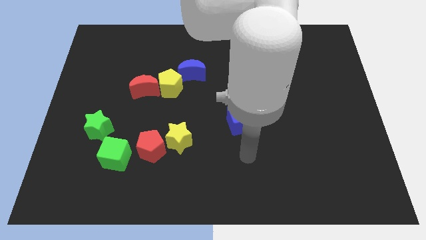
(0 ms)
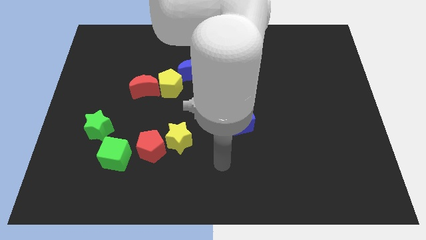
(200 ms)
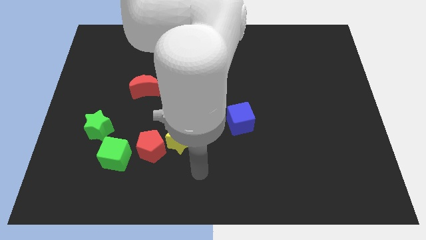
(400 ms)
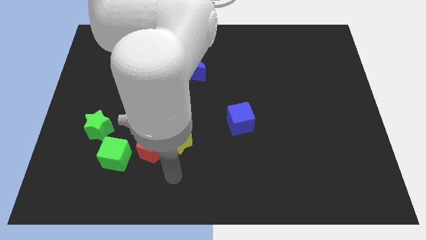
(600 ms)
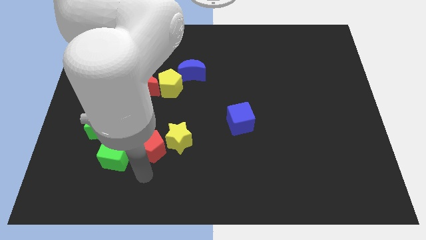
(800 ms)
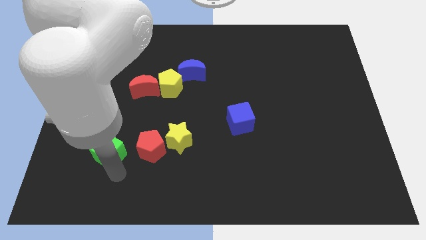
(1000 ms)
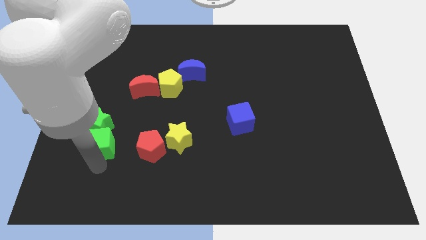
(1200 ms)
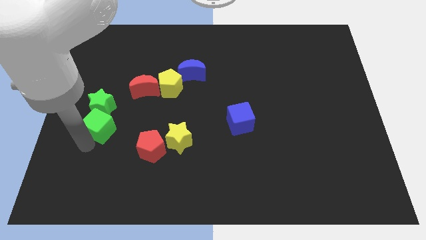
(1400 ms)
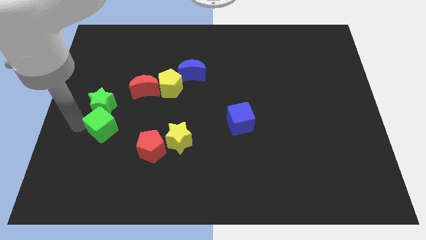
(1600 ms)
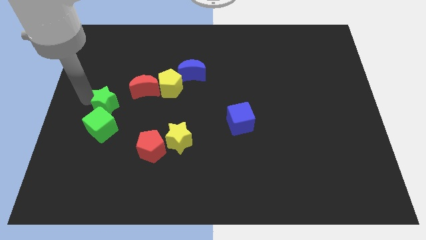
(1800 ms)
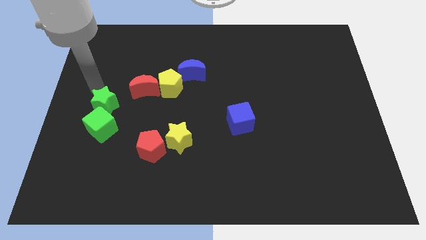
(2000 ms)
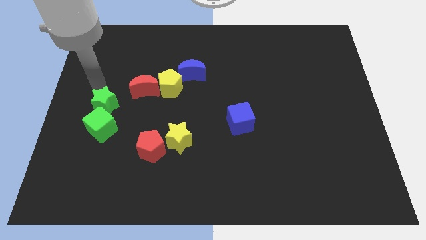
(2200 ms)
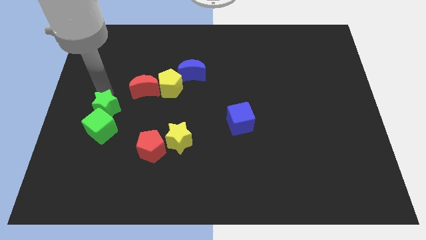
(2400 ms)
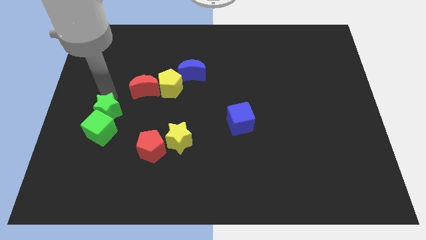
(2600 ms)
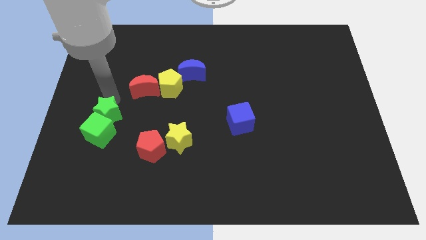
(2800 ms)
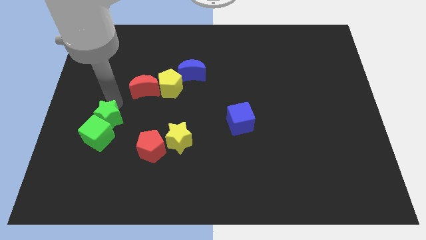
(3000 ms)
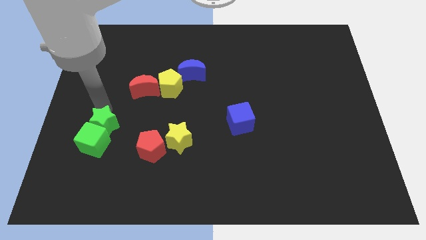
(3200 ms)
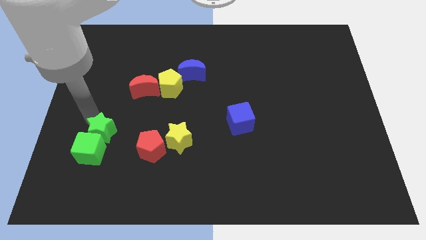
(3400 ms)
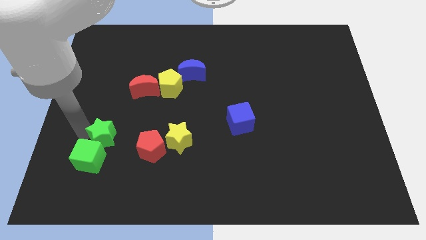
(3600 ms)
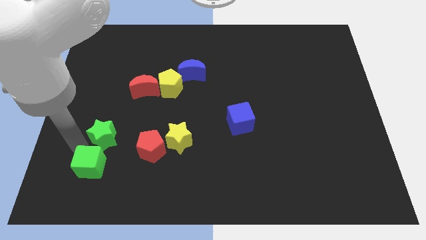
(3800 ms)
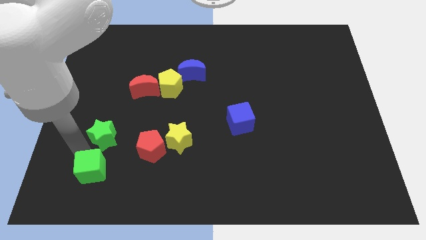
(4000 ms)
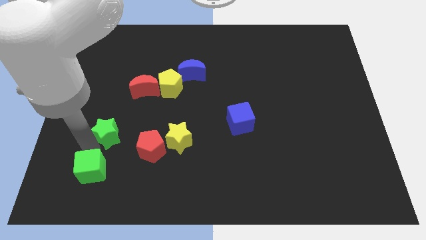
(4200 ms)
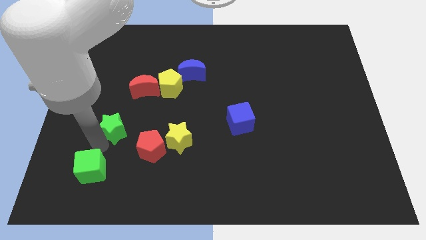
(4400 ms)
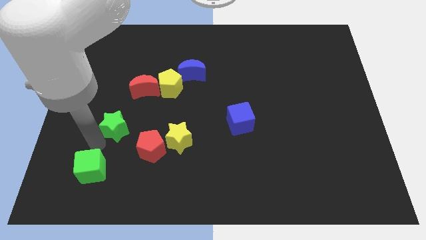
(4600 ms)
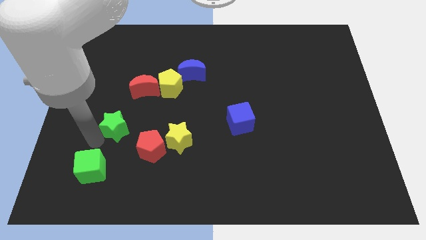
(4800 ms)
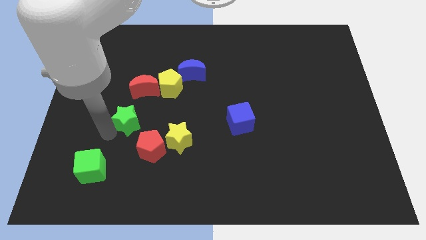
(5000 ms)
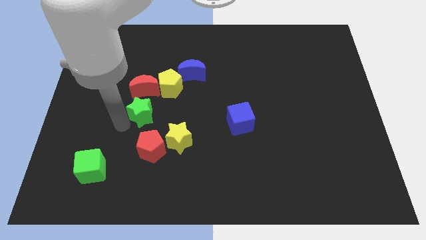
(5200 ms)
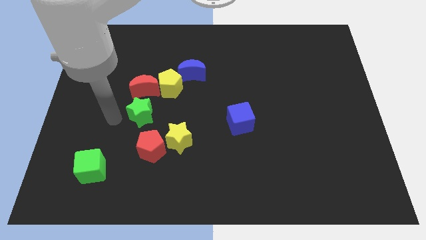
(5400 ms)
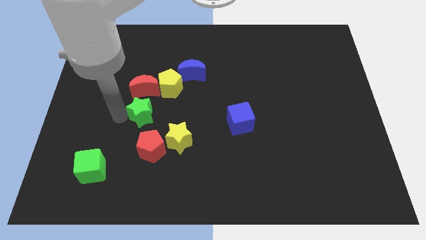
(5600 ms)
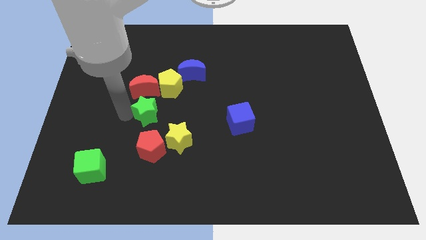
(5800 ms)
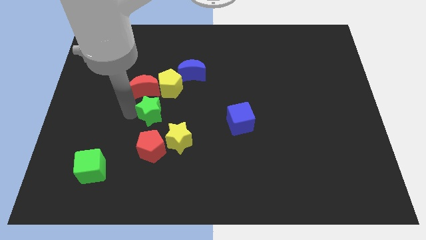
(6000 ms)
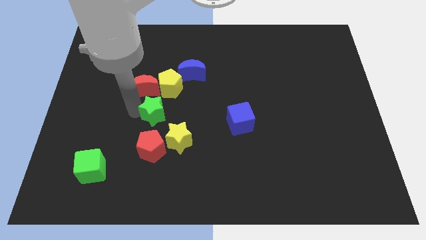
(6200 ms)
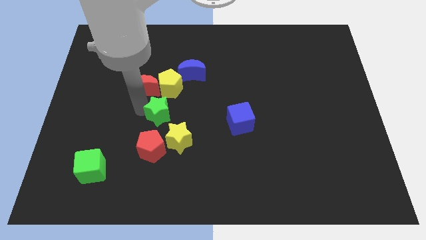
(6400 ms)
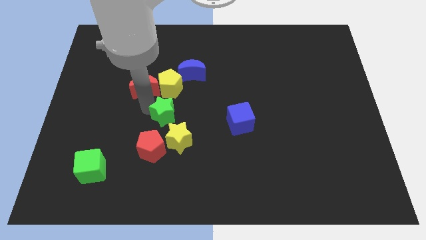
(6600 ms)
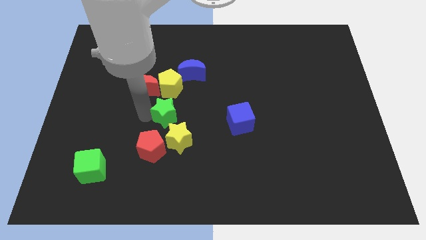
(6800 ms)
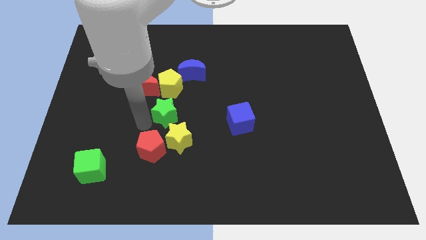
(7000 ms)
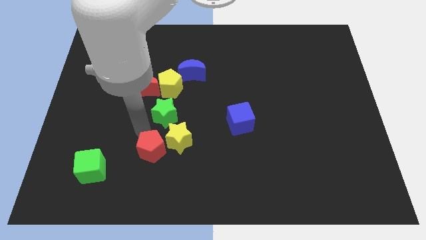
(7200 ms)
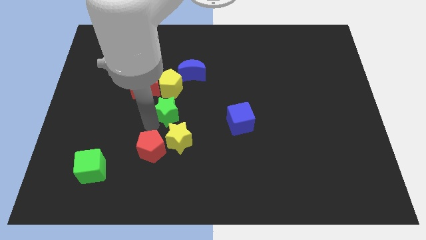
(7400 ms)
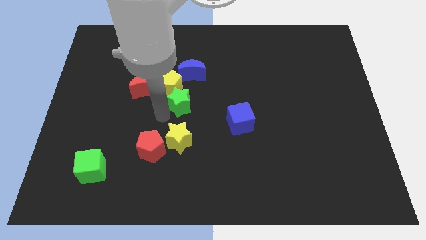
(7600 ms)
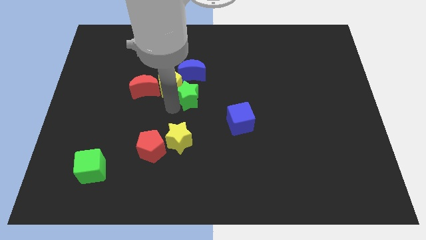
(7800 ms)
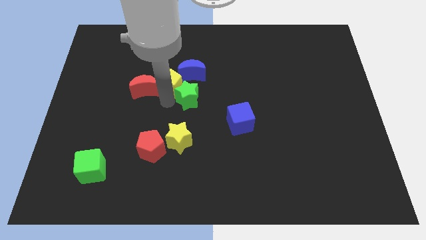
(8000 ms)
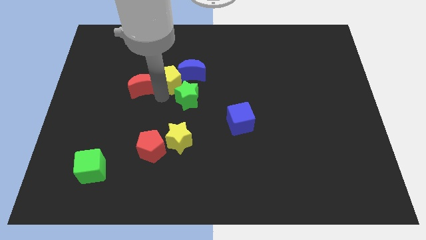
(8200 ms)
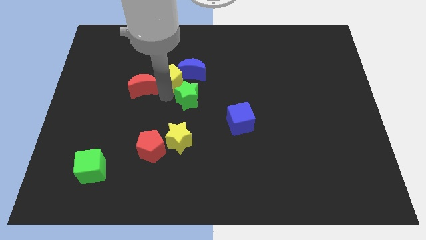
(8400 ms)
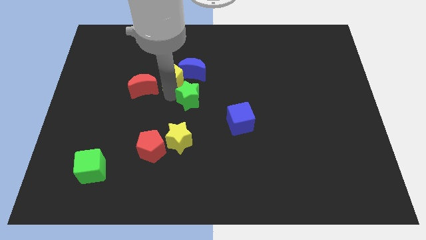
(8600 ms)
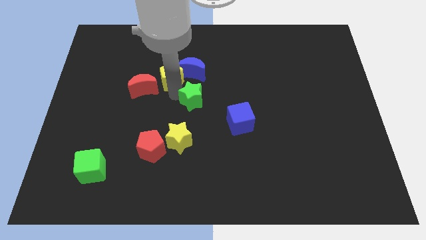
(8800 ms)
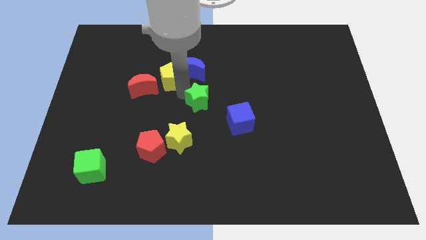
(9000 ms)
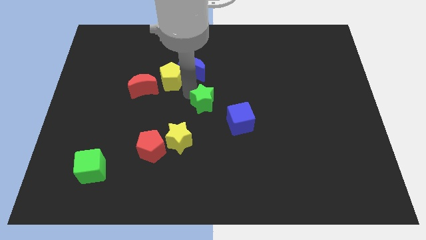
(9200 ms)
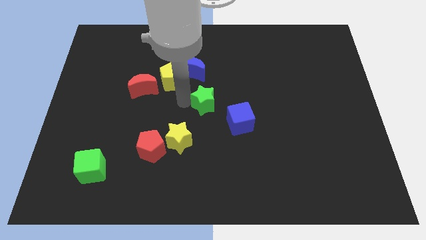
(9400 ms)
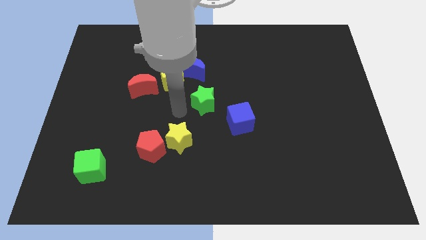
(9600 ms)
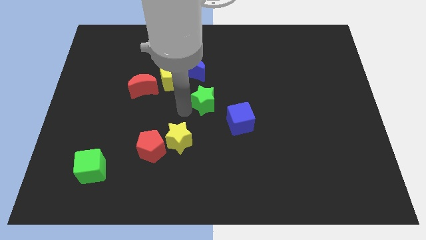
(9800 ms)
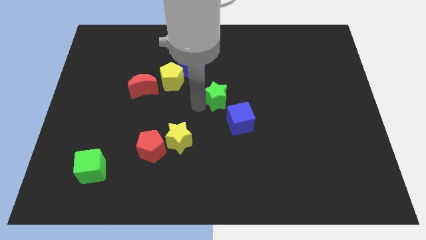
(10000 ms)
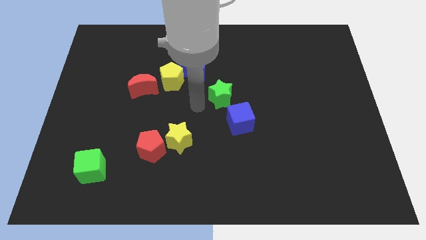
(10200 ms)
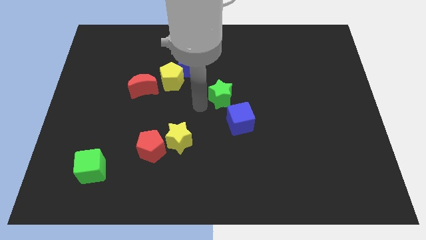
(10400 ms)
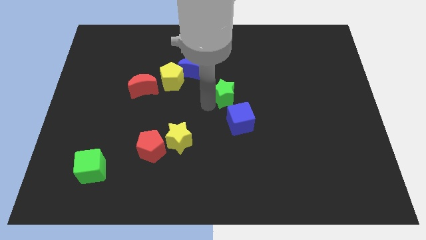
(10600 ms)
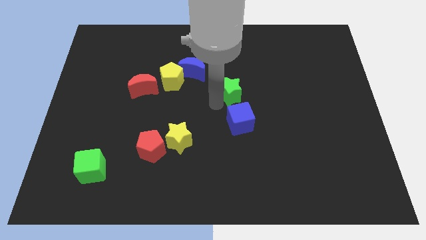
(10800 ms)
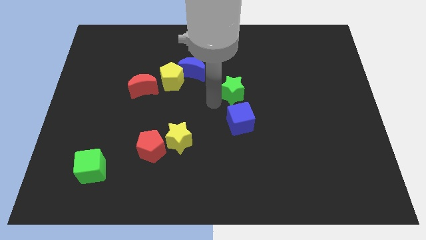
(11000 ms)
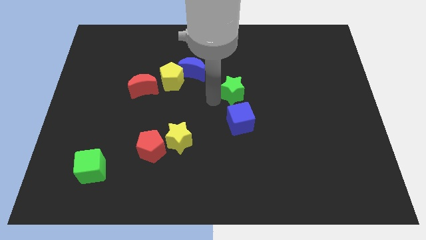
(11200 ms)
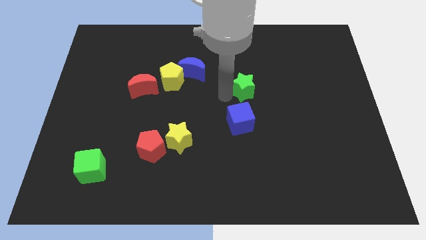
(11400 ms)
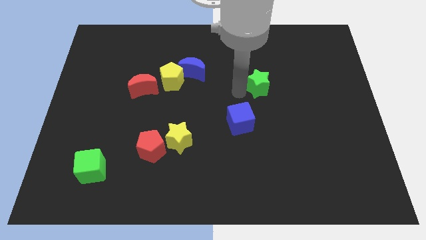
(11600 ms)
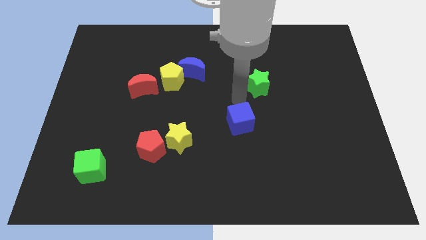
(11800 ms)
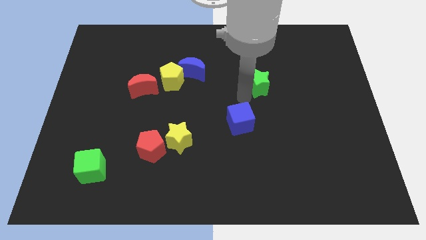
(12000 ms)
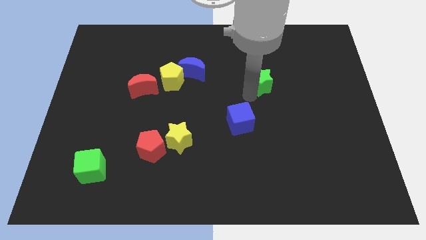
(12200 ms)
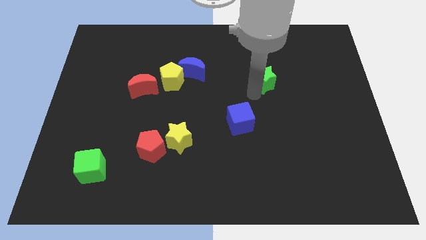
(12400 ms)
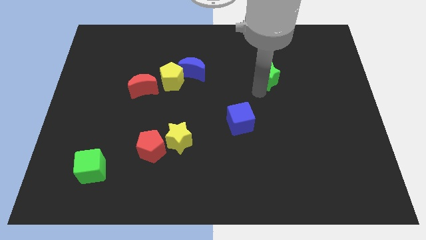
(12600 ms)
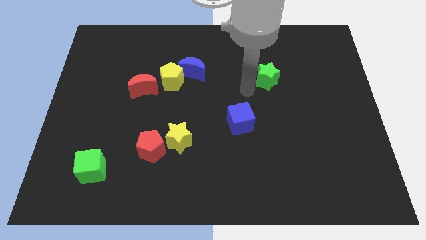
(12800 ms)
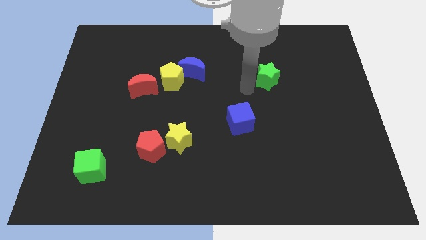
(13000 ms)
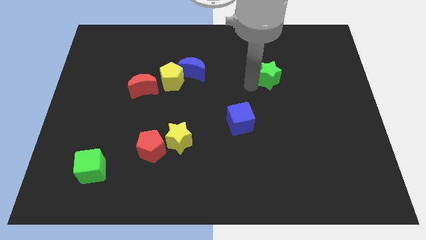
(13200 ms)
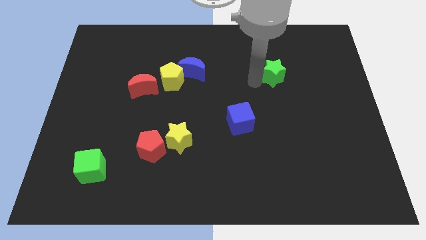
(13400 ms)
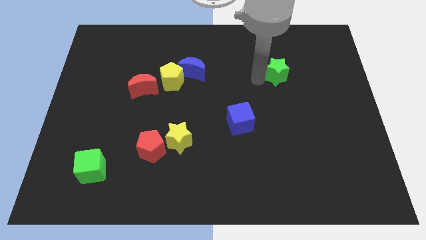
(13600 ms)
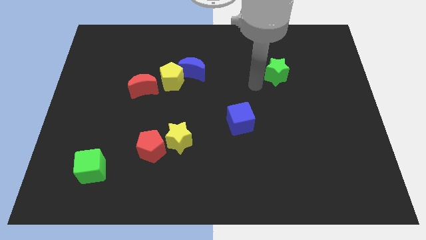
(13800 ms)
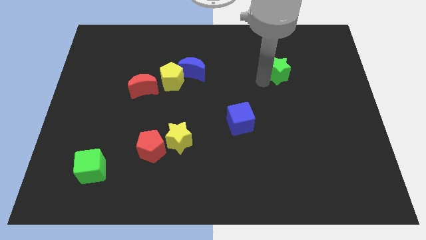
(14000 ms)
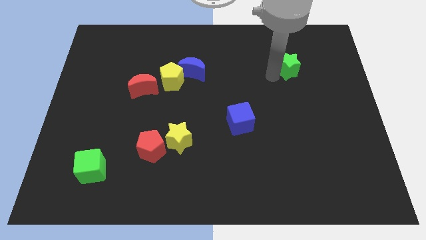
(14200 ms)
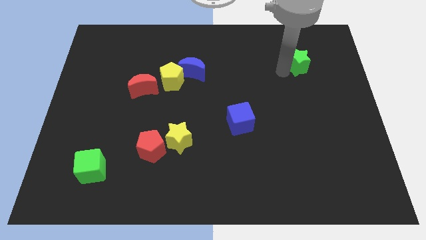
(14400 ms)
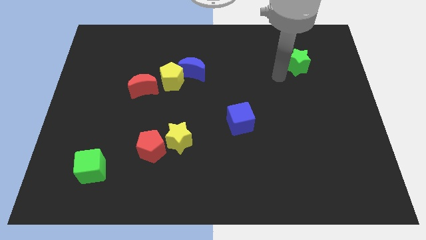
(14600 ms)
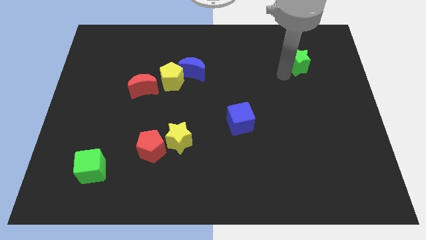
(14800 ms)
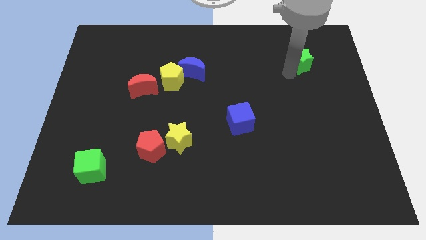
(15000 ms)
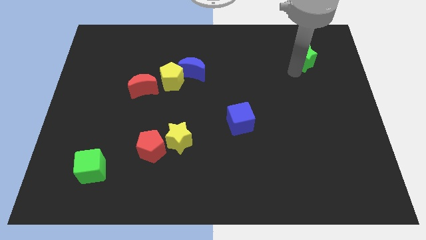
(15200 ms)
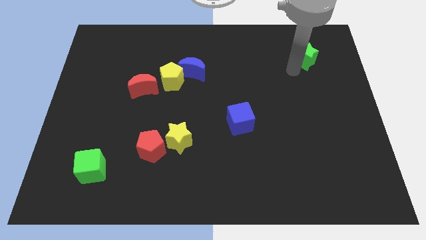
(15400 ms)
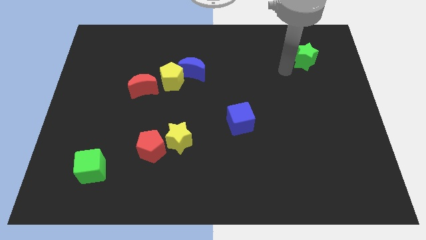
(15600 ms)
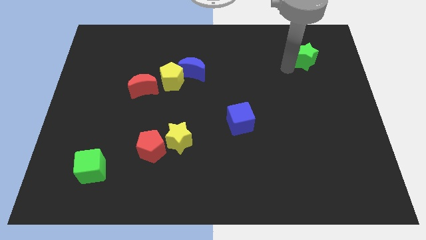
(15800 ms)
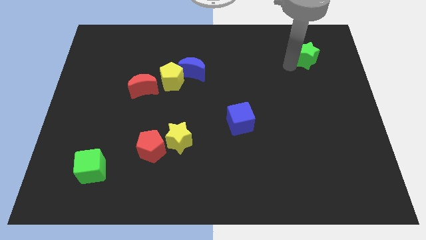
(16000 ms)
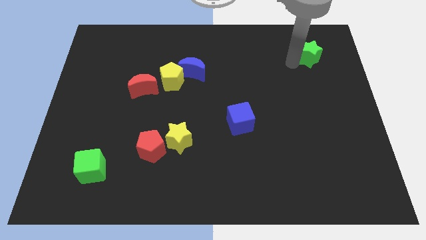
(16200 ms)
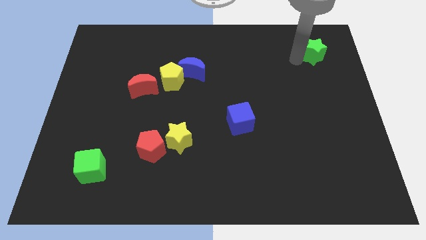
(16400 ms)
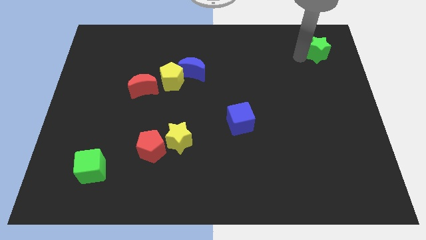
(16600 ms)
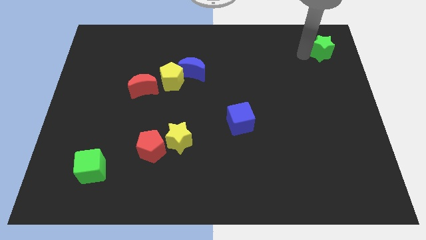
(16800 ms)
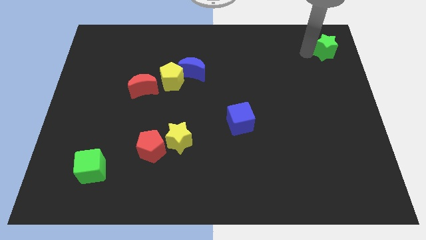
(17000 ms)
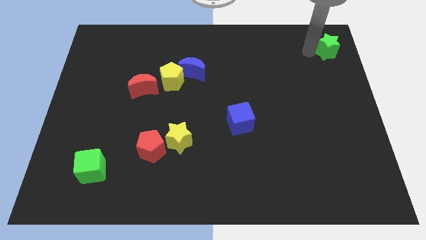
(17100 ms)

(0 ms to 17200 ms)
put the green star to the top right corner
